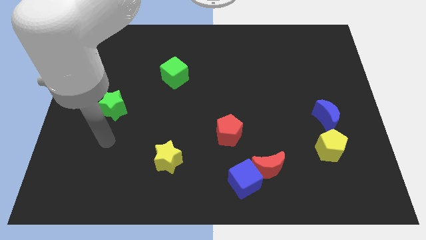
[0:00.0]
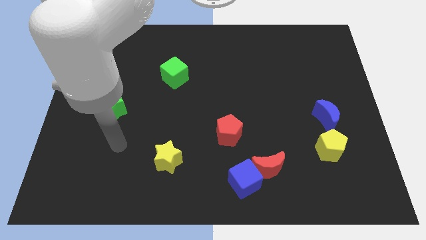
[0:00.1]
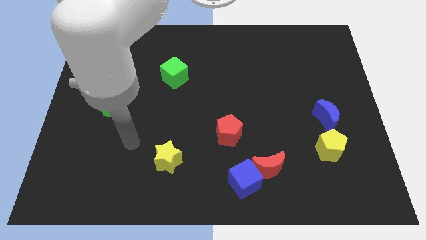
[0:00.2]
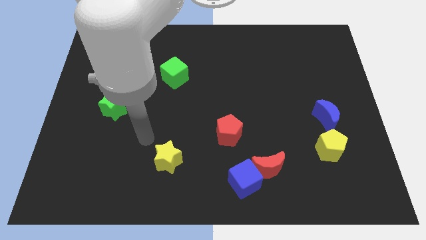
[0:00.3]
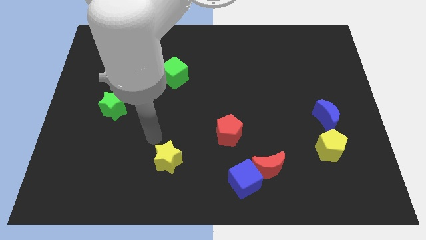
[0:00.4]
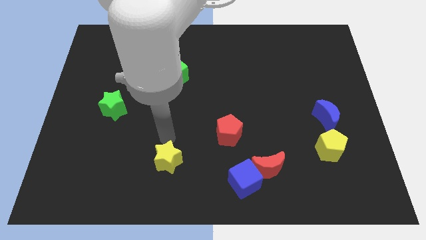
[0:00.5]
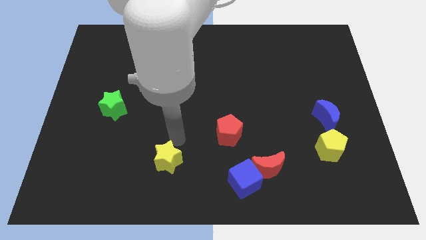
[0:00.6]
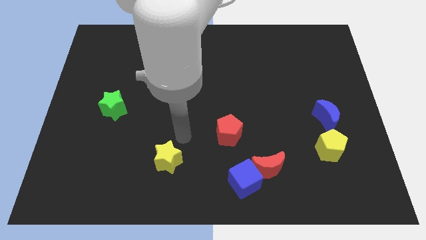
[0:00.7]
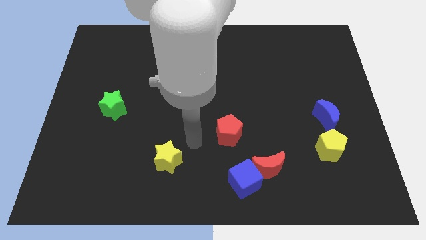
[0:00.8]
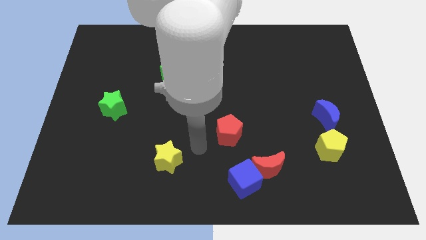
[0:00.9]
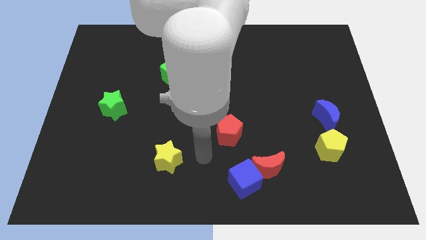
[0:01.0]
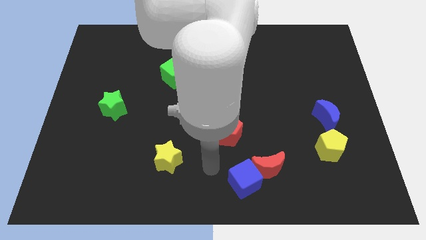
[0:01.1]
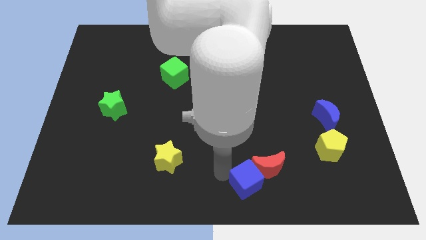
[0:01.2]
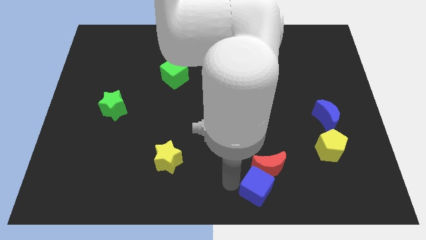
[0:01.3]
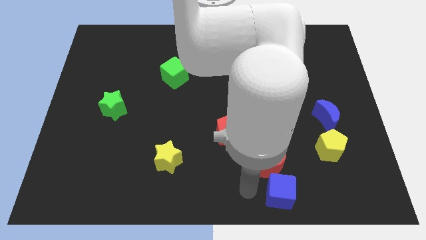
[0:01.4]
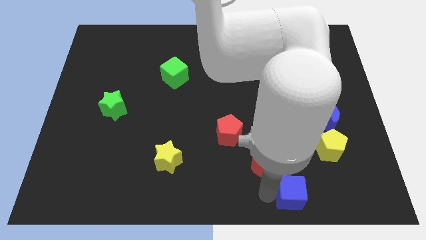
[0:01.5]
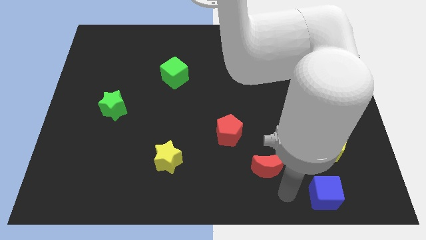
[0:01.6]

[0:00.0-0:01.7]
pull the red moon apart from the blue cube

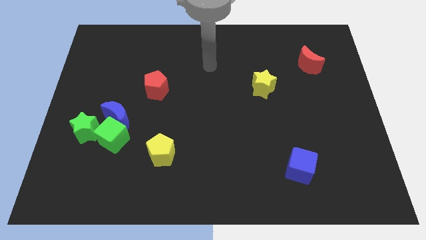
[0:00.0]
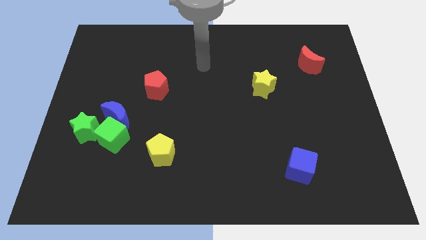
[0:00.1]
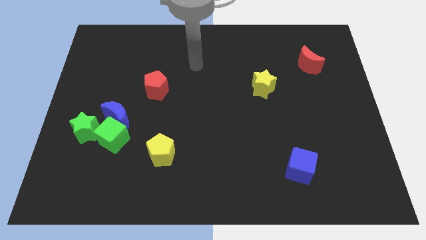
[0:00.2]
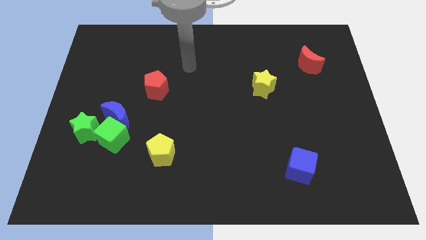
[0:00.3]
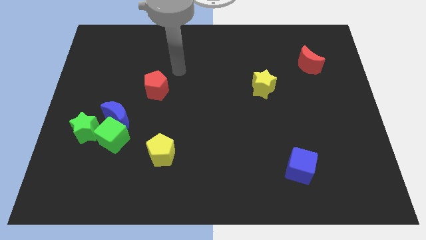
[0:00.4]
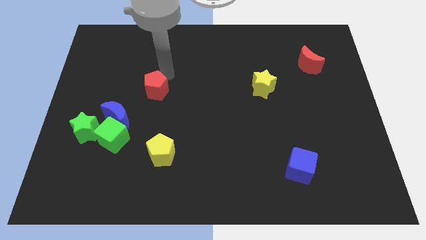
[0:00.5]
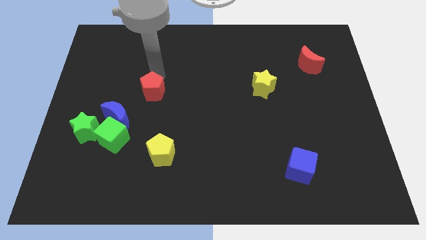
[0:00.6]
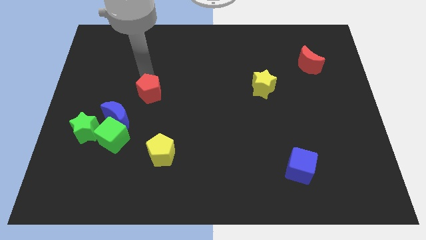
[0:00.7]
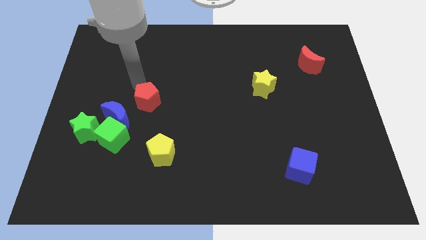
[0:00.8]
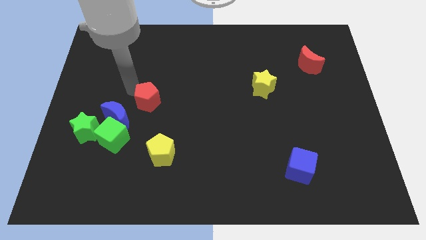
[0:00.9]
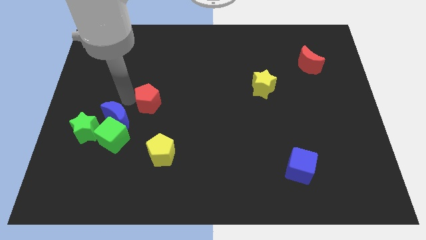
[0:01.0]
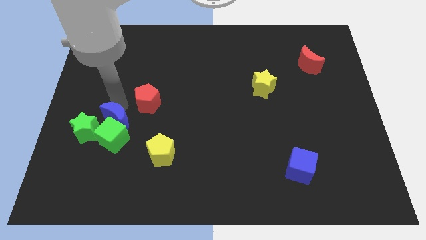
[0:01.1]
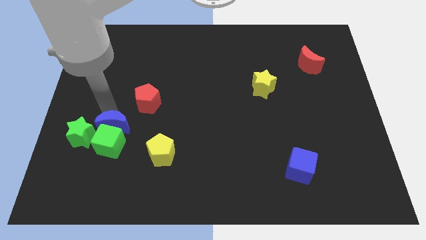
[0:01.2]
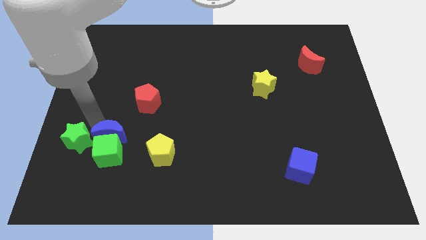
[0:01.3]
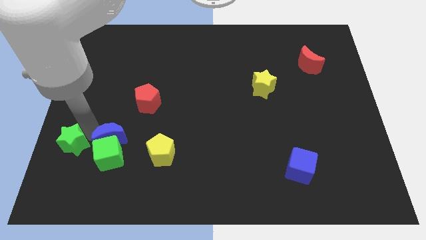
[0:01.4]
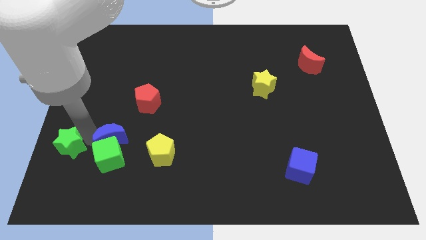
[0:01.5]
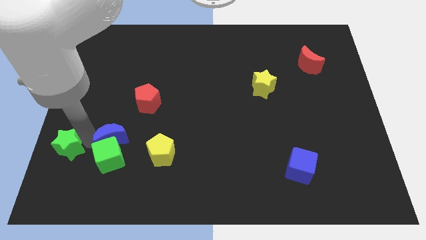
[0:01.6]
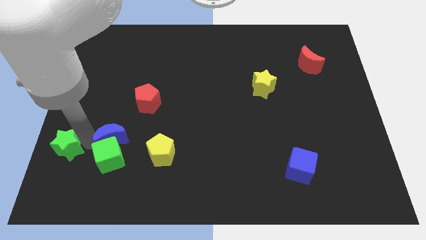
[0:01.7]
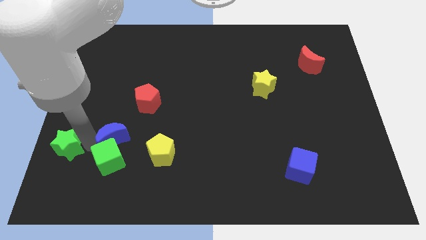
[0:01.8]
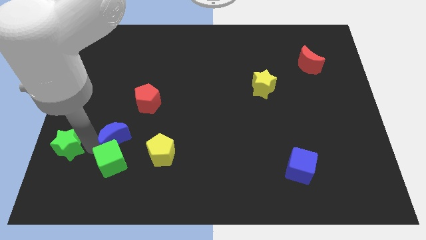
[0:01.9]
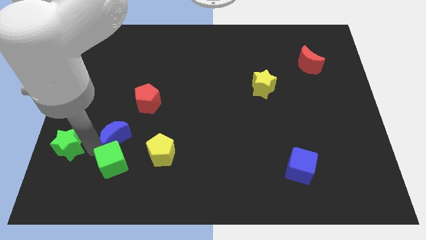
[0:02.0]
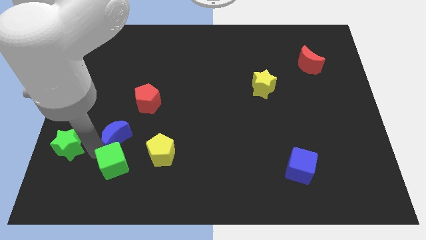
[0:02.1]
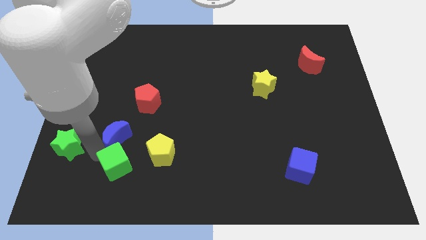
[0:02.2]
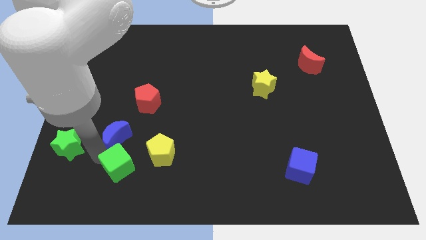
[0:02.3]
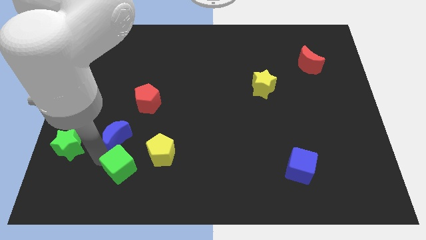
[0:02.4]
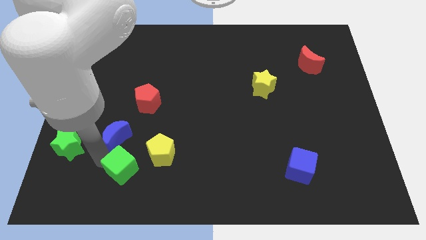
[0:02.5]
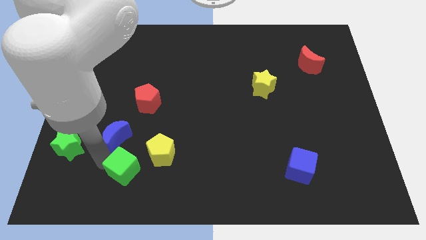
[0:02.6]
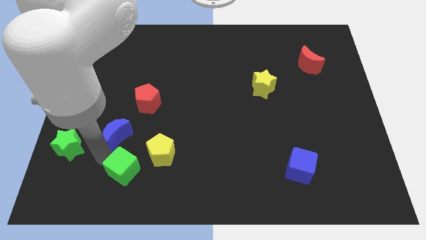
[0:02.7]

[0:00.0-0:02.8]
pull the green cube apart from the blue moon and green star

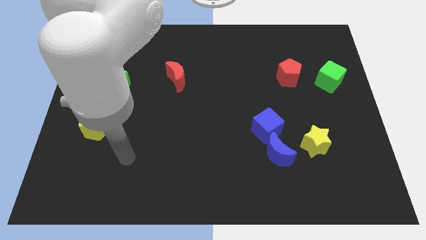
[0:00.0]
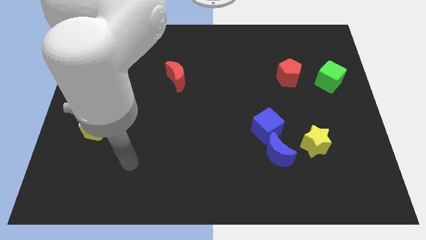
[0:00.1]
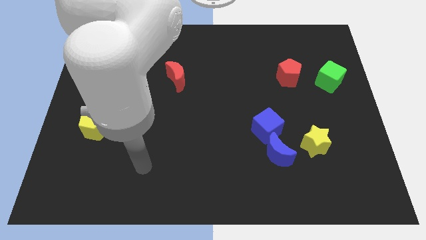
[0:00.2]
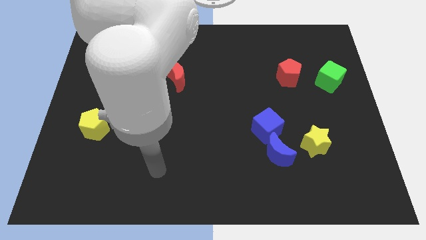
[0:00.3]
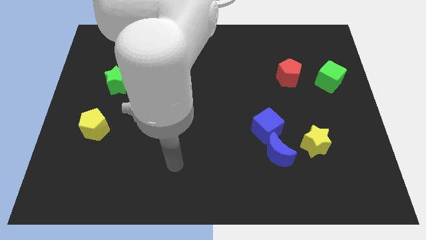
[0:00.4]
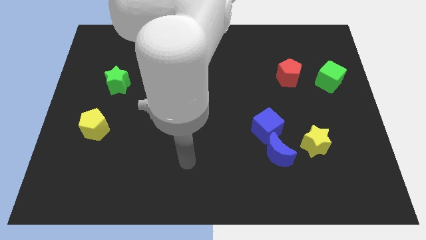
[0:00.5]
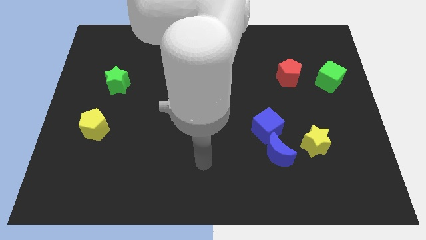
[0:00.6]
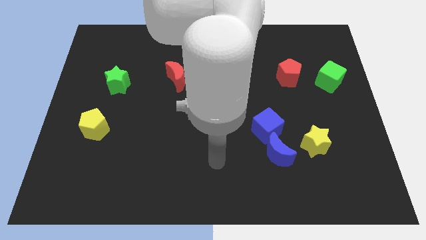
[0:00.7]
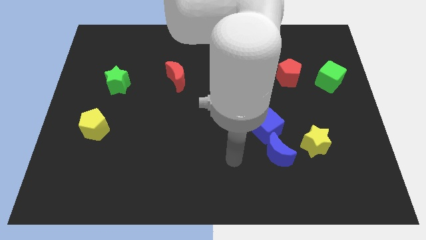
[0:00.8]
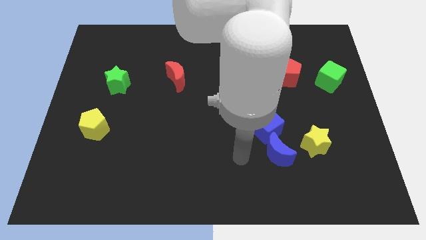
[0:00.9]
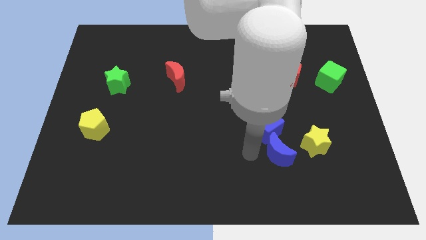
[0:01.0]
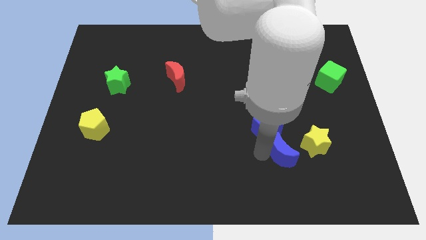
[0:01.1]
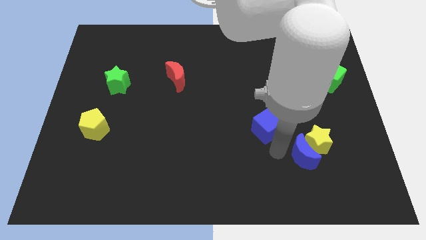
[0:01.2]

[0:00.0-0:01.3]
separate the blue cube from the blue moon

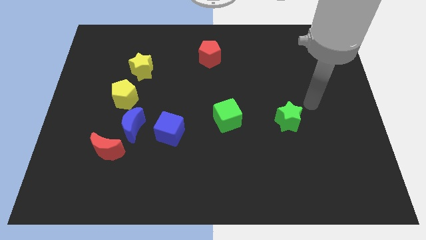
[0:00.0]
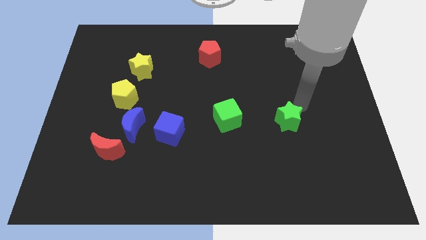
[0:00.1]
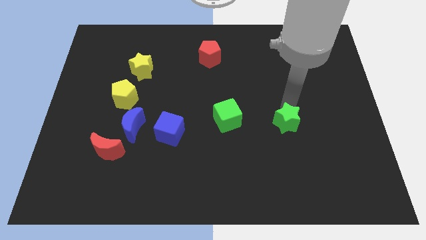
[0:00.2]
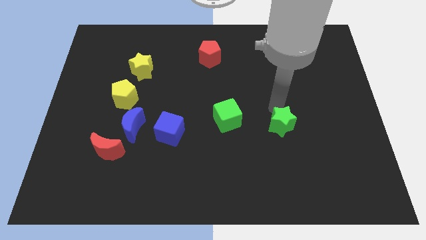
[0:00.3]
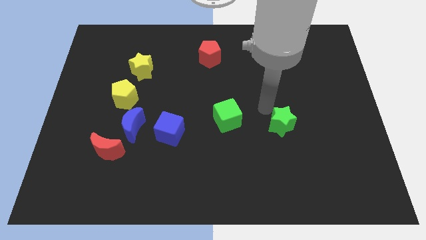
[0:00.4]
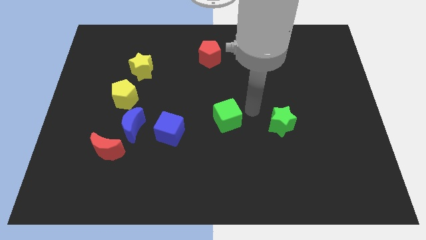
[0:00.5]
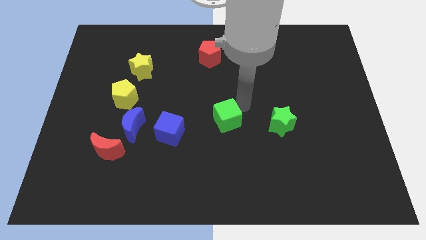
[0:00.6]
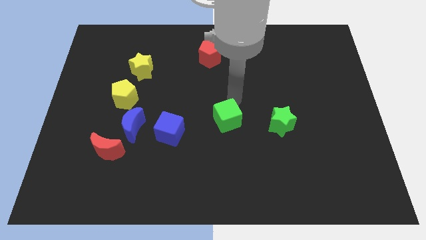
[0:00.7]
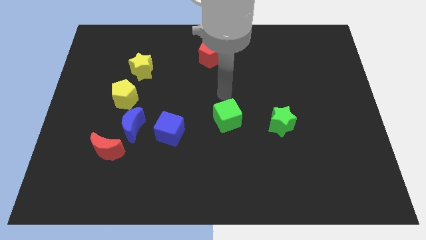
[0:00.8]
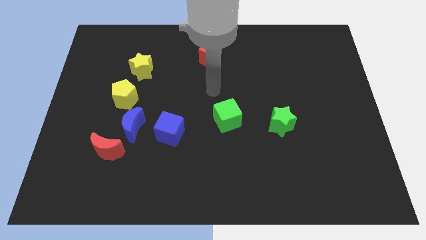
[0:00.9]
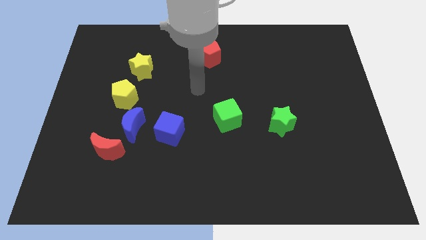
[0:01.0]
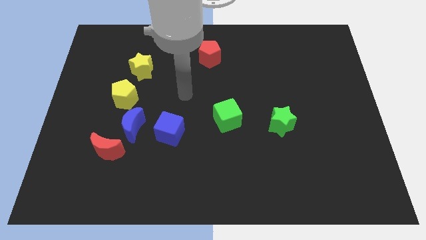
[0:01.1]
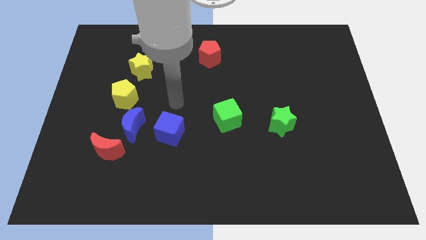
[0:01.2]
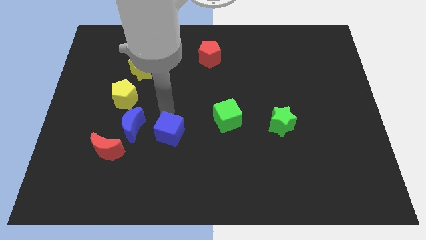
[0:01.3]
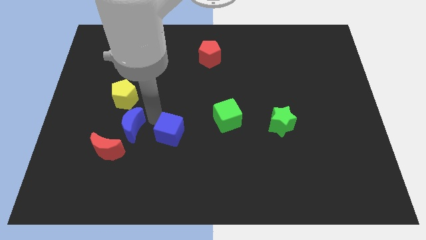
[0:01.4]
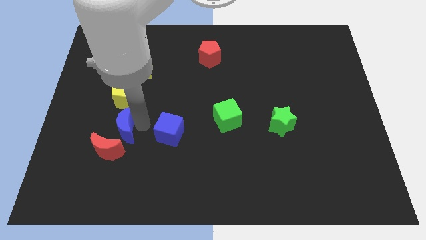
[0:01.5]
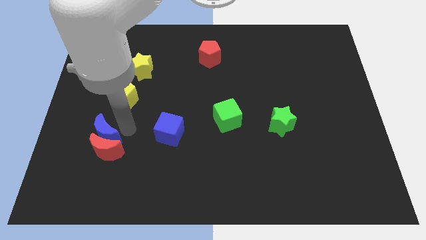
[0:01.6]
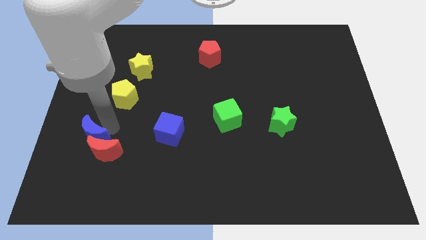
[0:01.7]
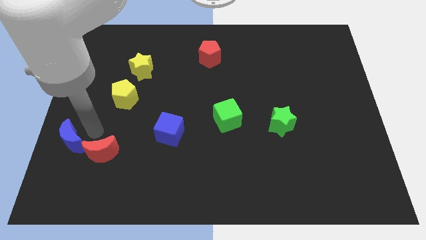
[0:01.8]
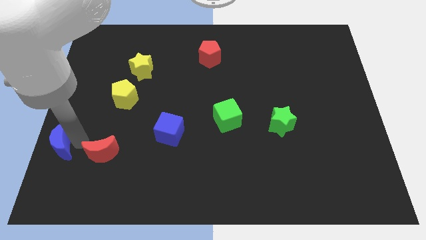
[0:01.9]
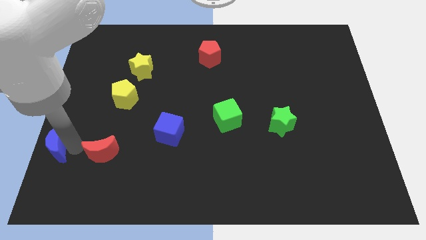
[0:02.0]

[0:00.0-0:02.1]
pull the red moon apart from the blue moon

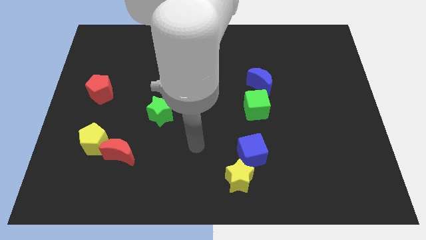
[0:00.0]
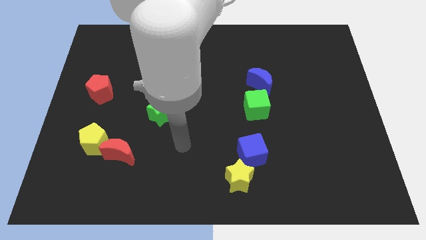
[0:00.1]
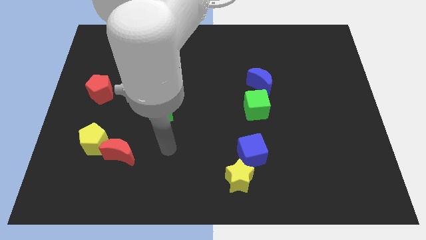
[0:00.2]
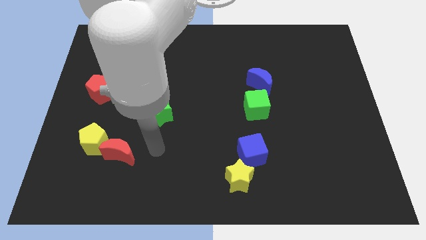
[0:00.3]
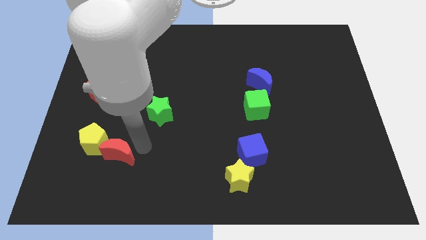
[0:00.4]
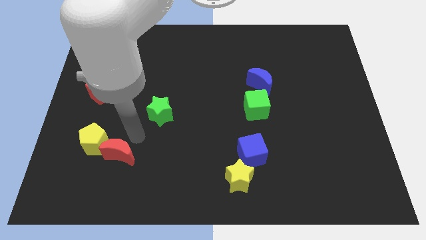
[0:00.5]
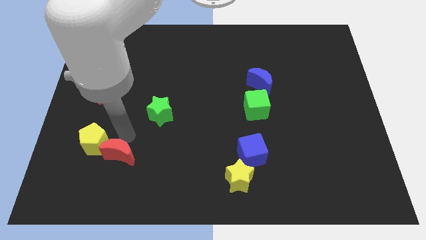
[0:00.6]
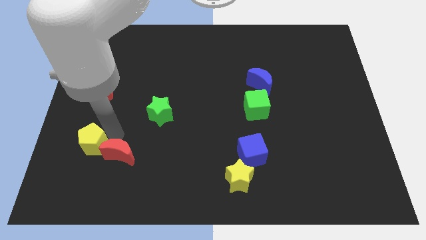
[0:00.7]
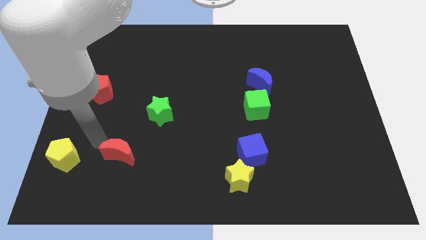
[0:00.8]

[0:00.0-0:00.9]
separate the red moon from the yellow pentagon

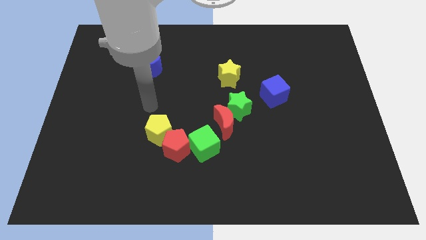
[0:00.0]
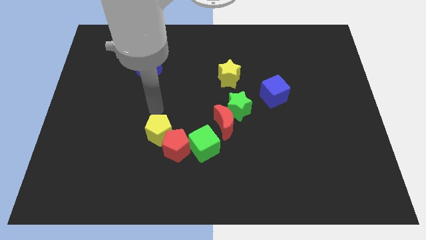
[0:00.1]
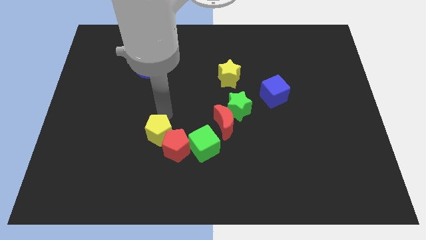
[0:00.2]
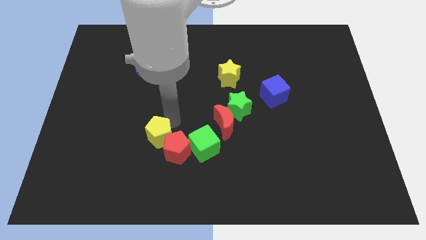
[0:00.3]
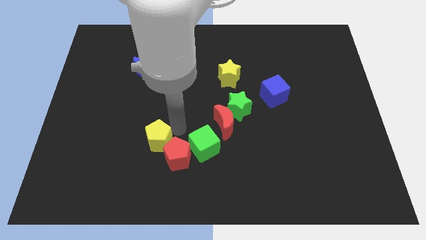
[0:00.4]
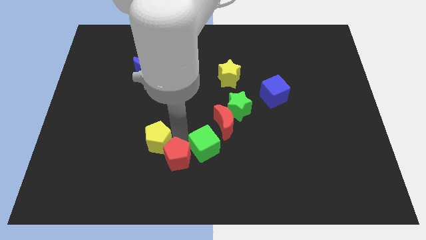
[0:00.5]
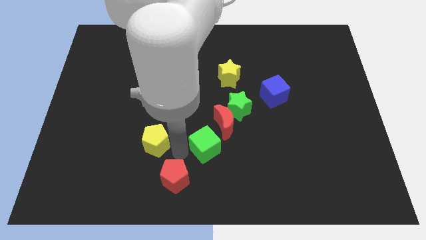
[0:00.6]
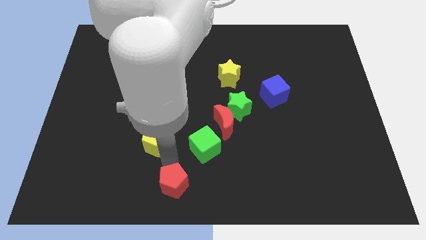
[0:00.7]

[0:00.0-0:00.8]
move the yellow pentagon away from the red pentagon
